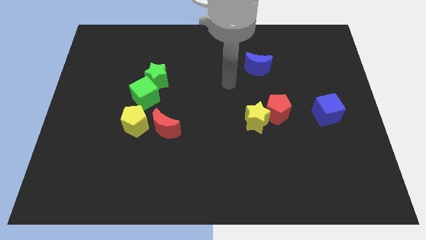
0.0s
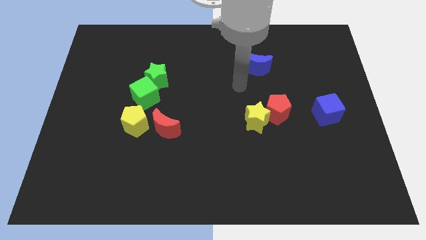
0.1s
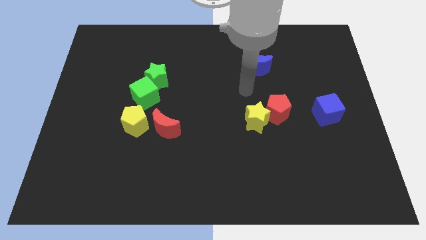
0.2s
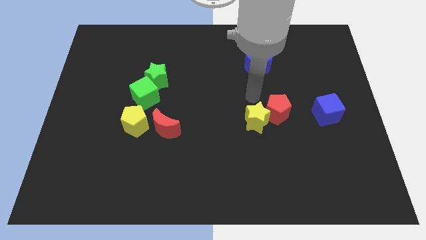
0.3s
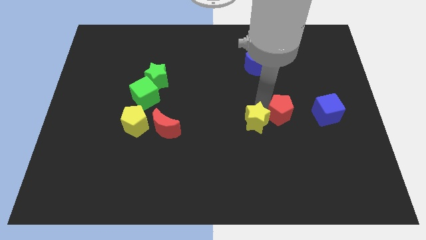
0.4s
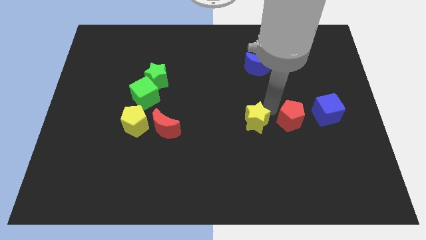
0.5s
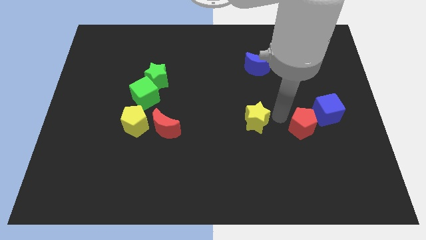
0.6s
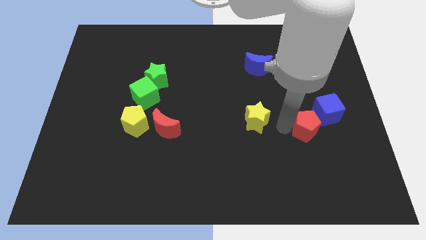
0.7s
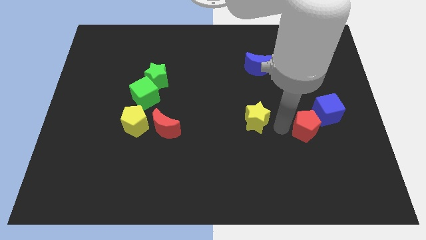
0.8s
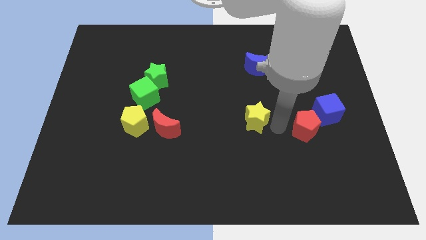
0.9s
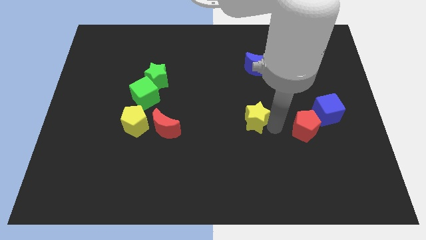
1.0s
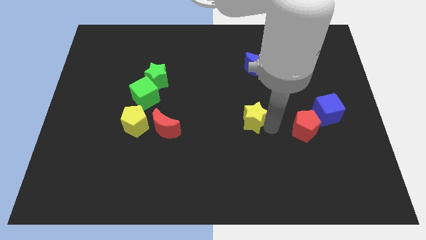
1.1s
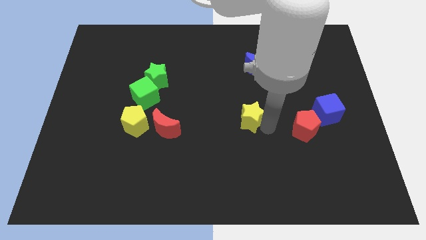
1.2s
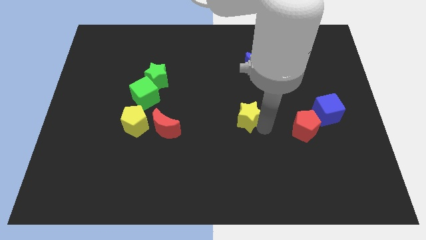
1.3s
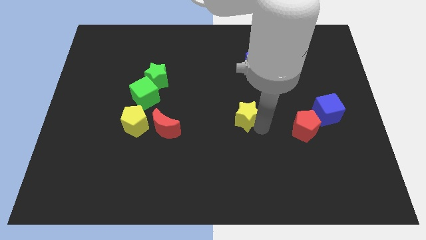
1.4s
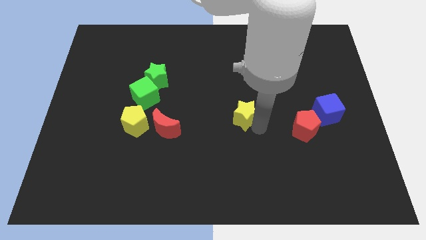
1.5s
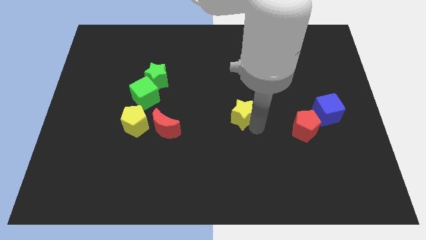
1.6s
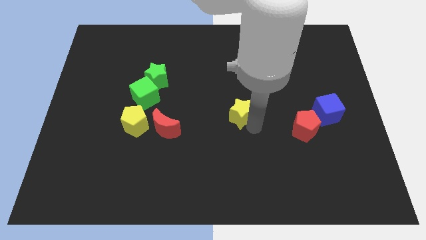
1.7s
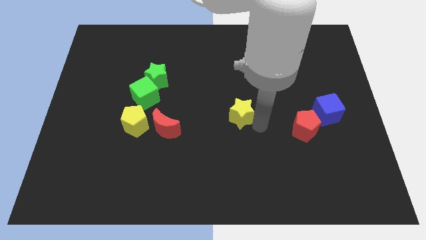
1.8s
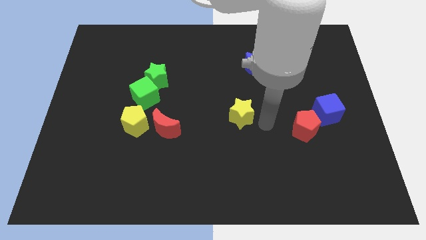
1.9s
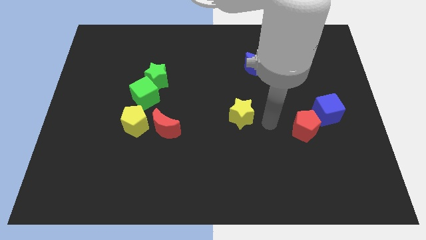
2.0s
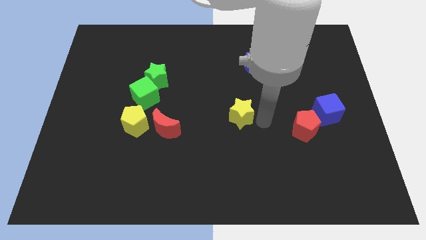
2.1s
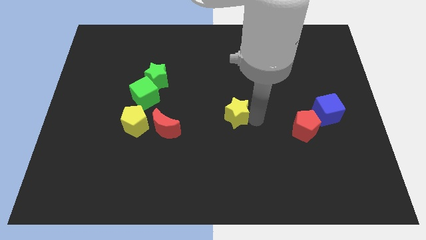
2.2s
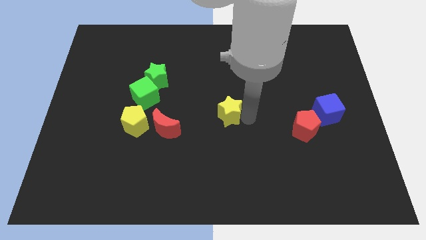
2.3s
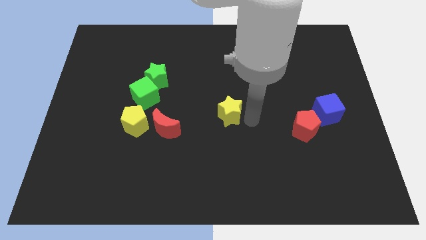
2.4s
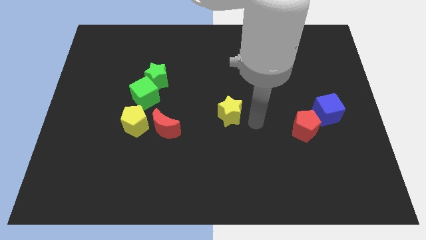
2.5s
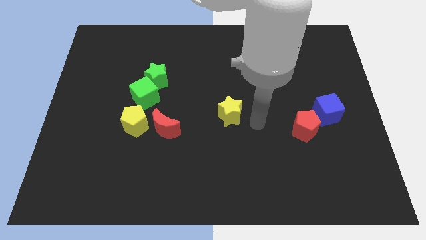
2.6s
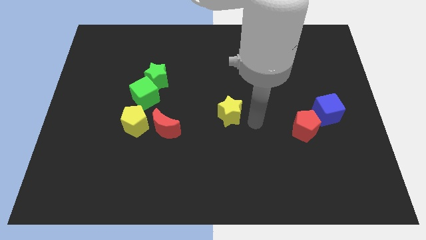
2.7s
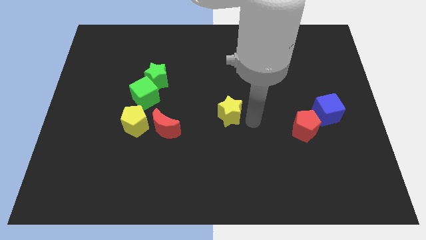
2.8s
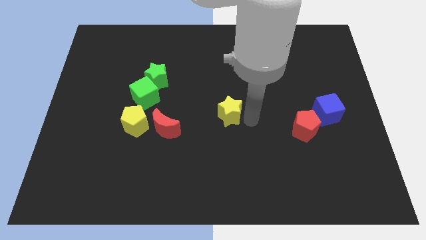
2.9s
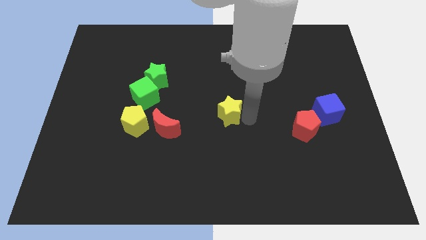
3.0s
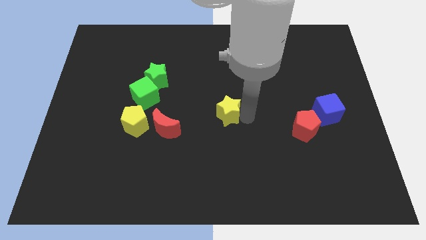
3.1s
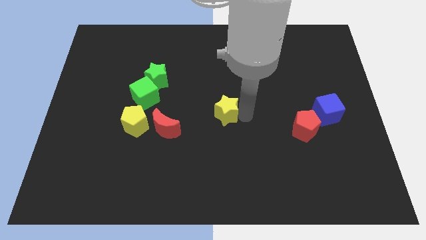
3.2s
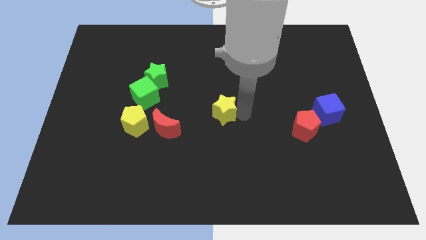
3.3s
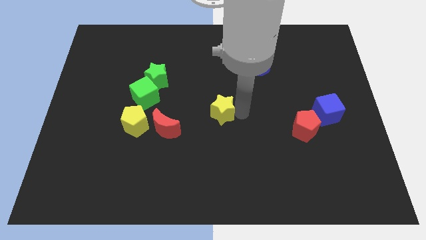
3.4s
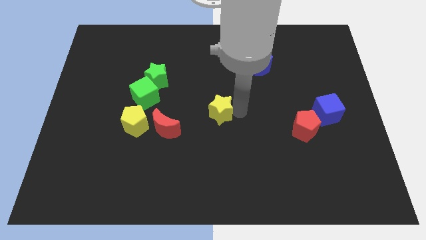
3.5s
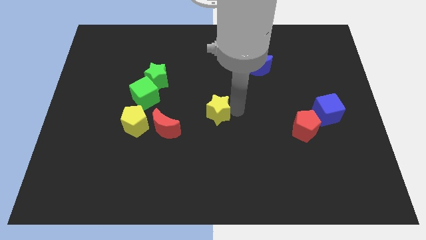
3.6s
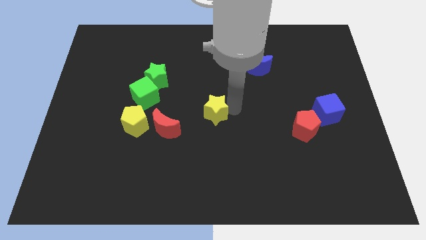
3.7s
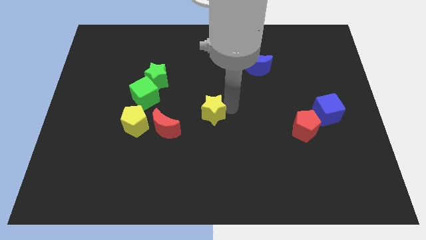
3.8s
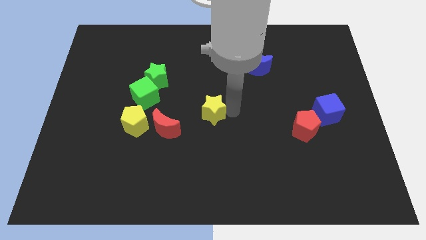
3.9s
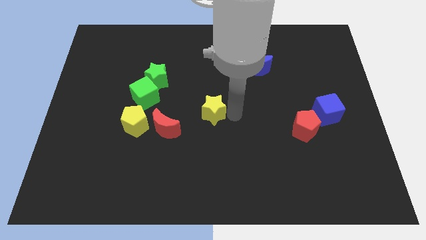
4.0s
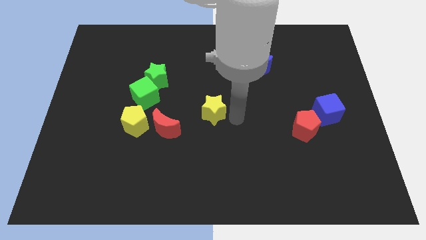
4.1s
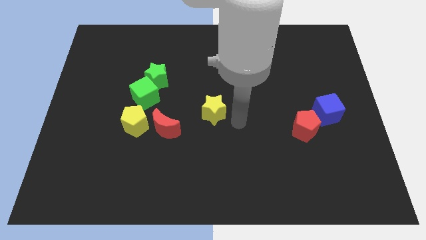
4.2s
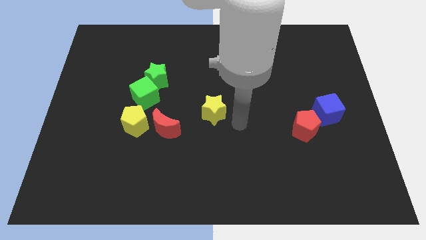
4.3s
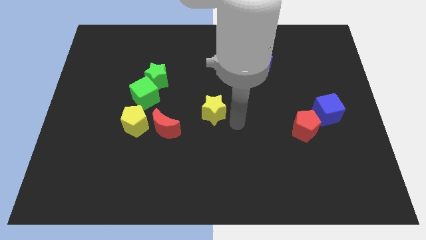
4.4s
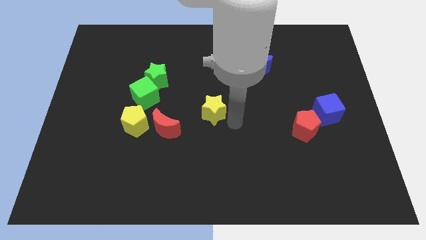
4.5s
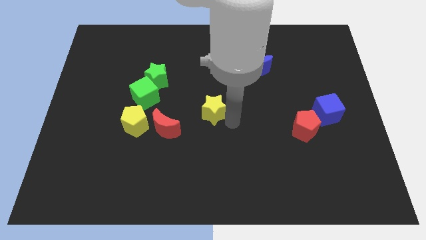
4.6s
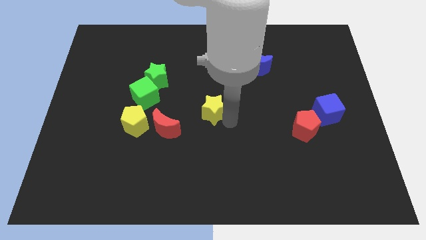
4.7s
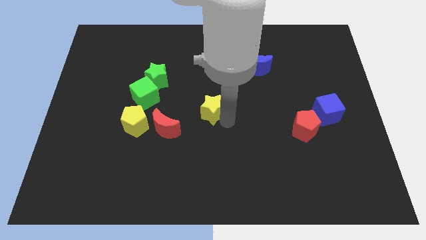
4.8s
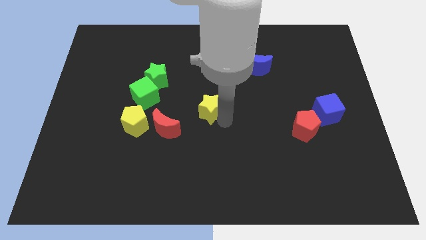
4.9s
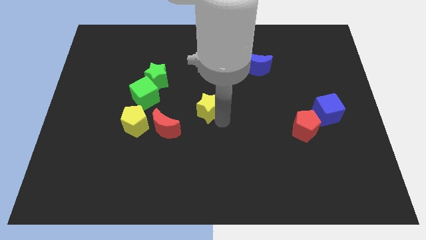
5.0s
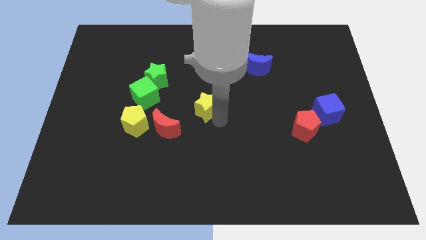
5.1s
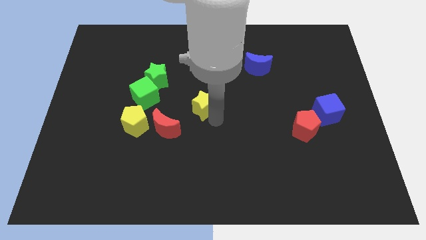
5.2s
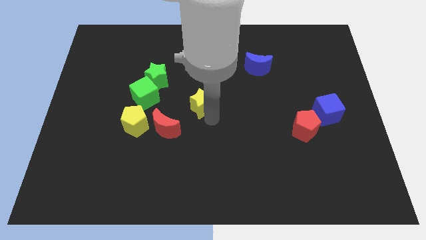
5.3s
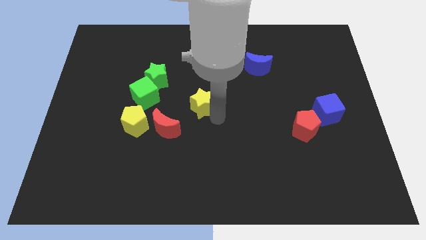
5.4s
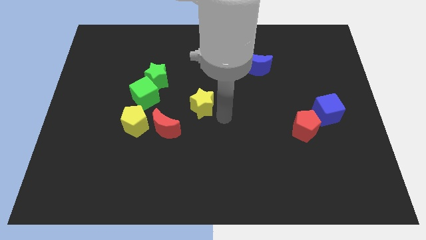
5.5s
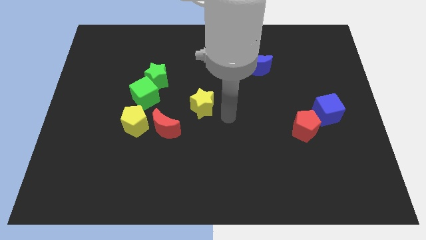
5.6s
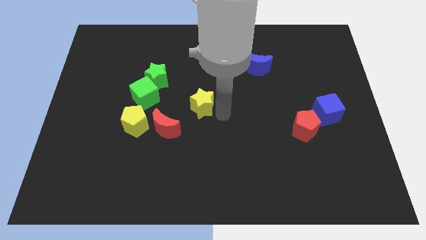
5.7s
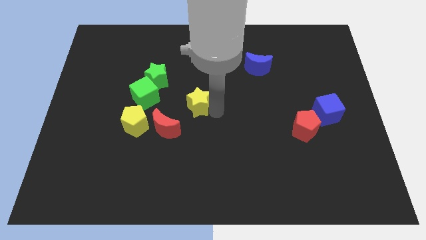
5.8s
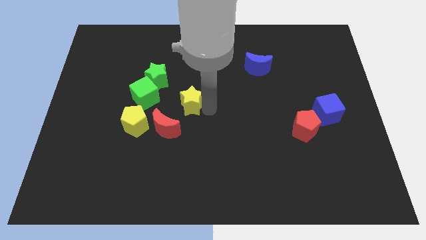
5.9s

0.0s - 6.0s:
slide the yellow star to the bottom right of the green star

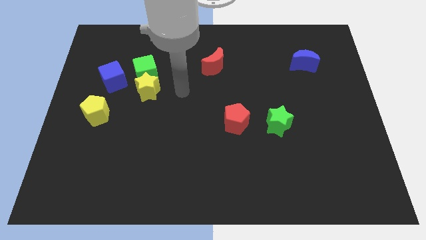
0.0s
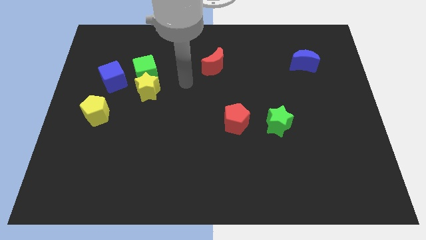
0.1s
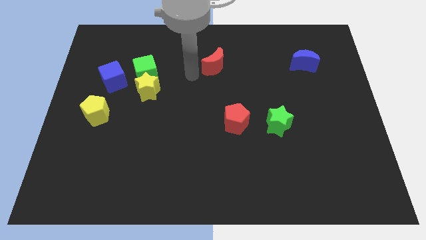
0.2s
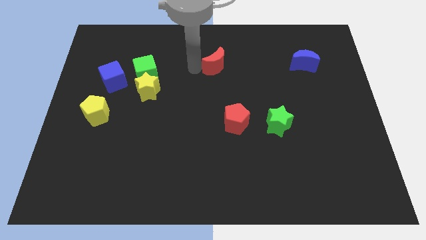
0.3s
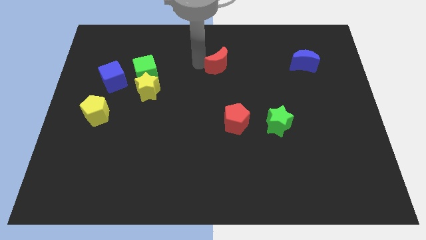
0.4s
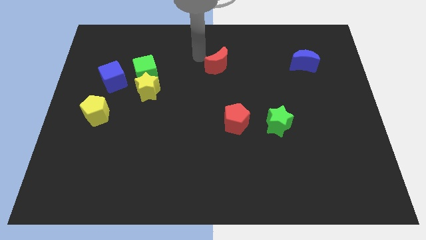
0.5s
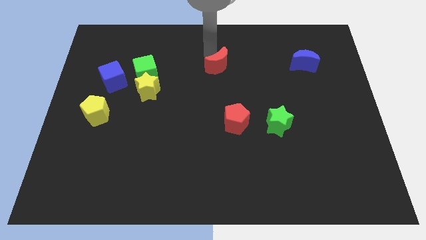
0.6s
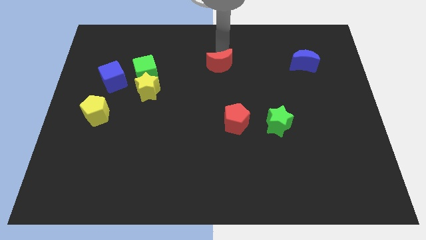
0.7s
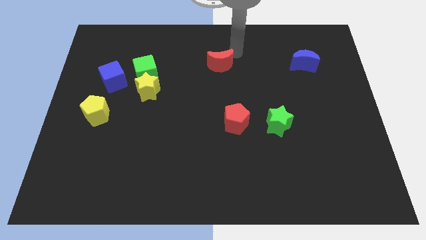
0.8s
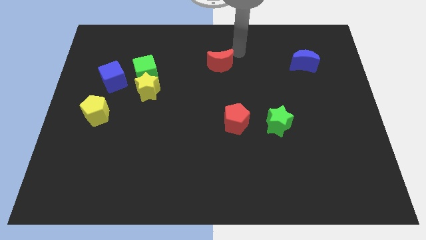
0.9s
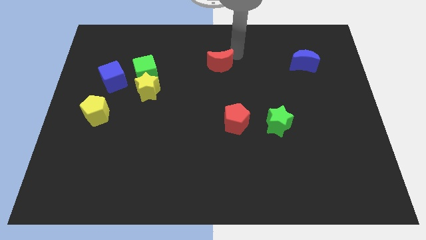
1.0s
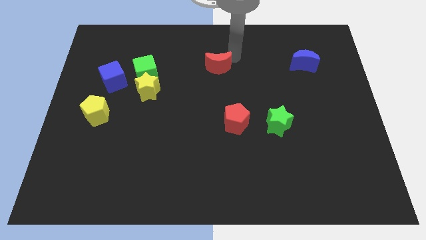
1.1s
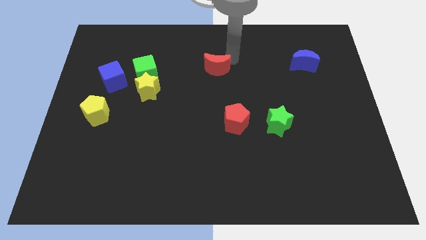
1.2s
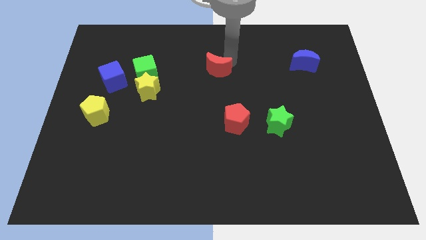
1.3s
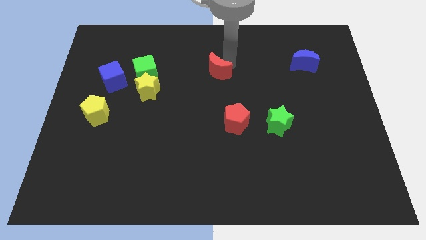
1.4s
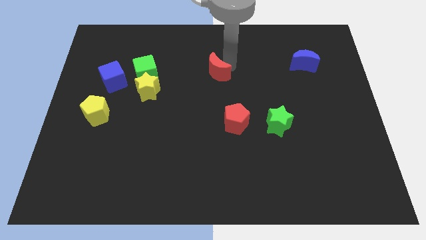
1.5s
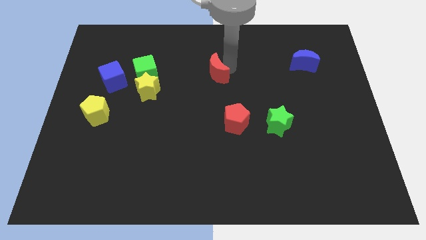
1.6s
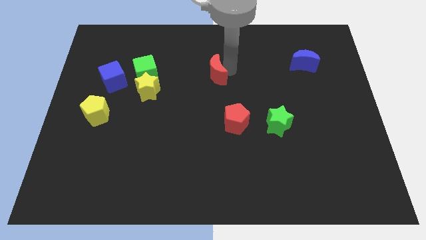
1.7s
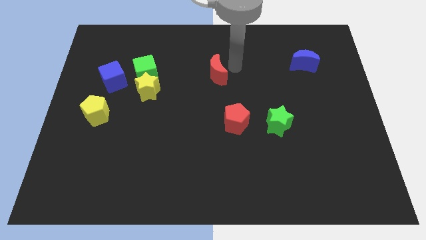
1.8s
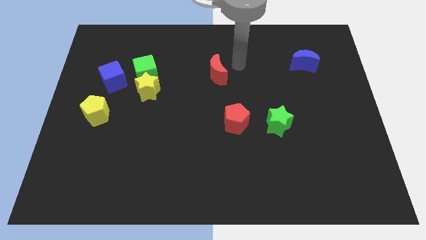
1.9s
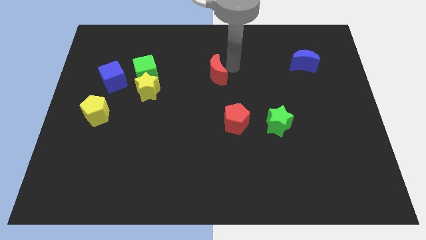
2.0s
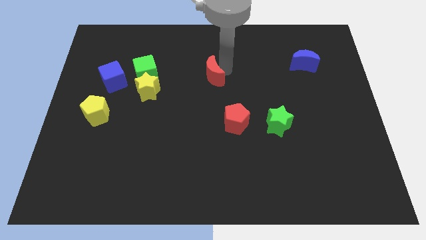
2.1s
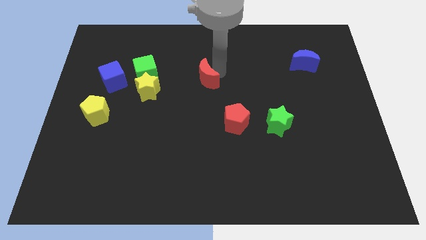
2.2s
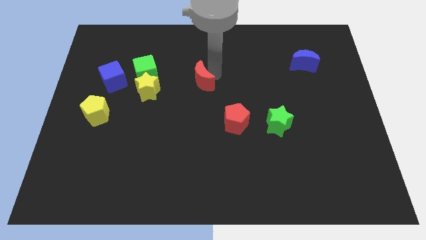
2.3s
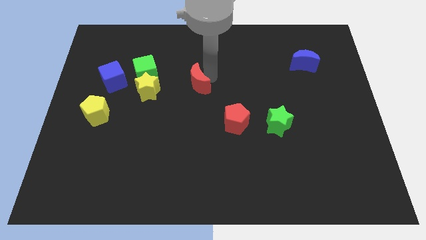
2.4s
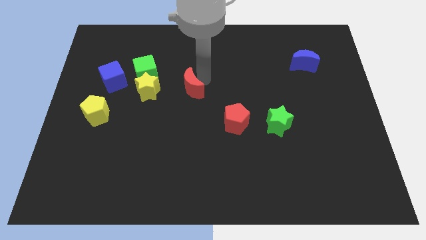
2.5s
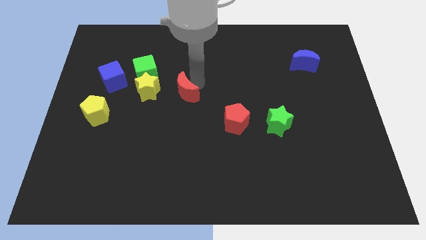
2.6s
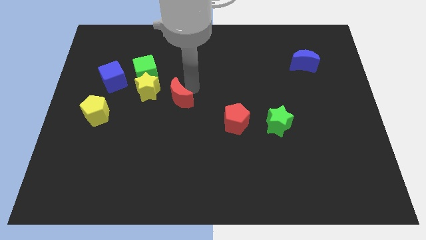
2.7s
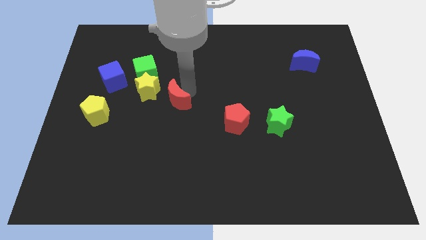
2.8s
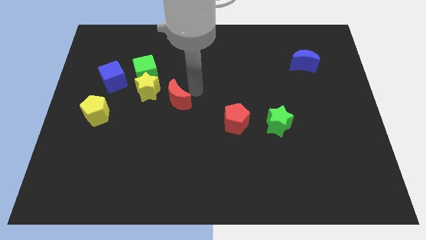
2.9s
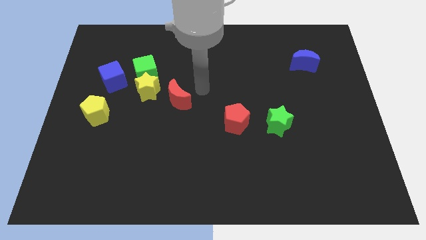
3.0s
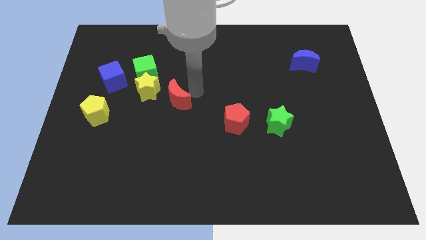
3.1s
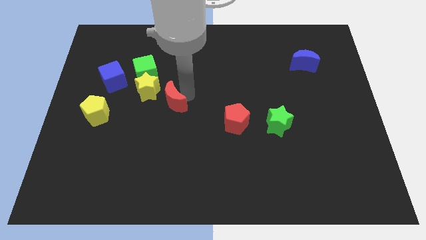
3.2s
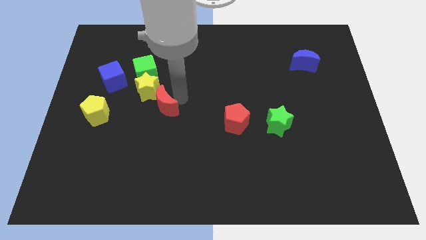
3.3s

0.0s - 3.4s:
slide the red moon to the right side of the yellow pentagon
